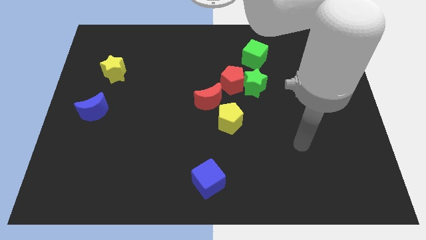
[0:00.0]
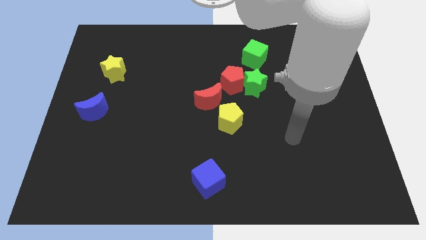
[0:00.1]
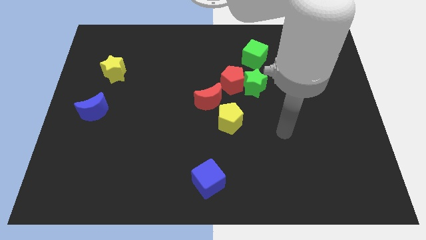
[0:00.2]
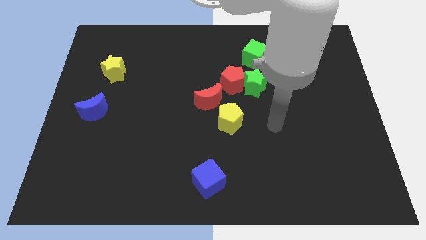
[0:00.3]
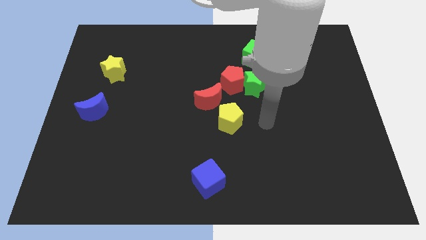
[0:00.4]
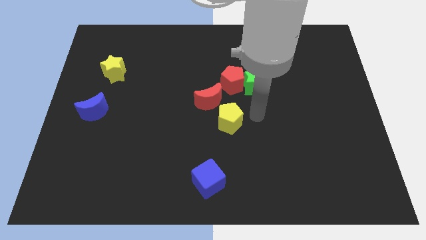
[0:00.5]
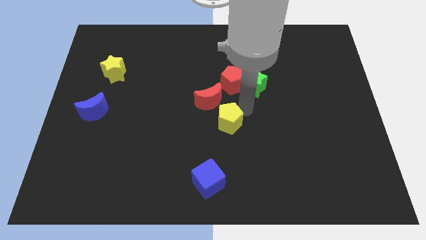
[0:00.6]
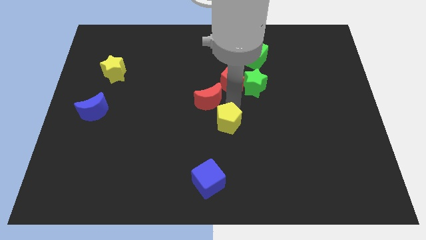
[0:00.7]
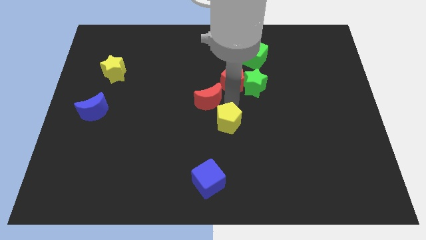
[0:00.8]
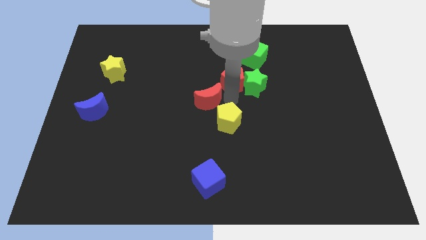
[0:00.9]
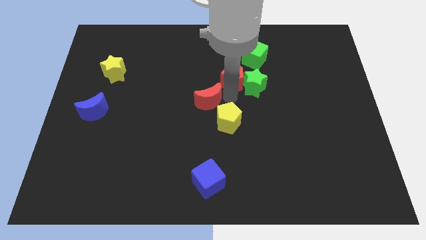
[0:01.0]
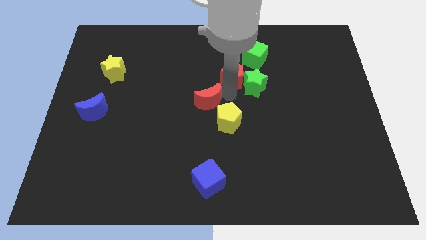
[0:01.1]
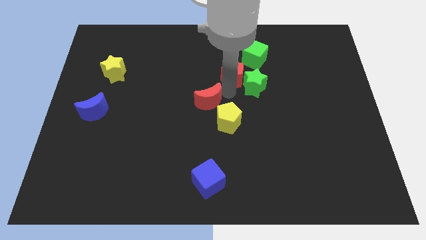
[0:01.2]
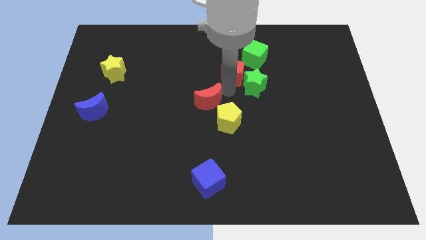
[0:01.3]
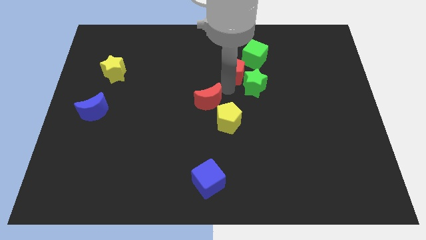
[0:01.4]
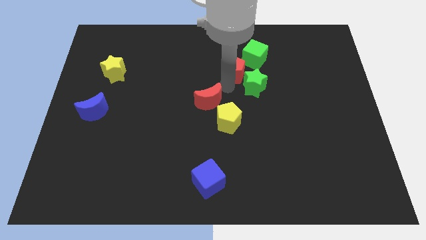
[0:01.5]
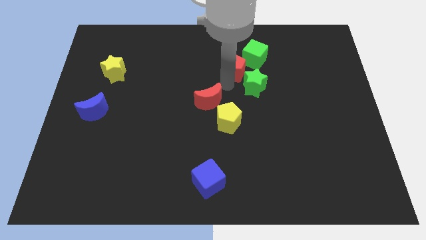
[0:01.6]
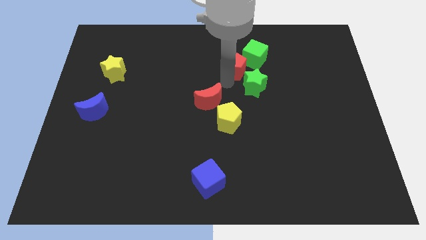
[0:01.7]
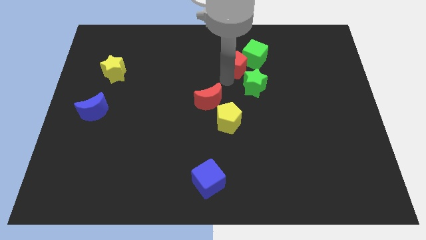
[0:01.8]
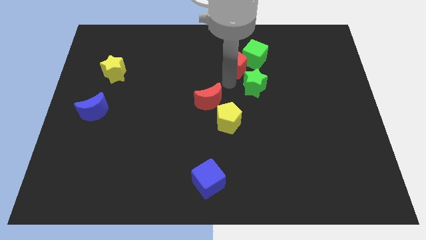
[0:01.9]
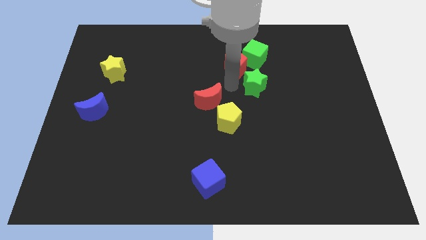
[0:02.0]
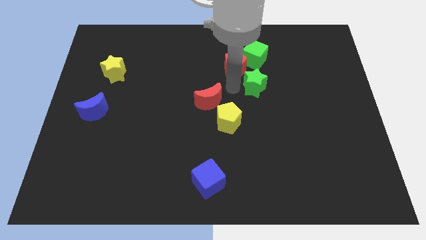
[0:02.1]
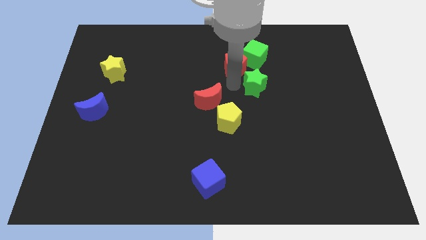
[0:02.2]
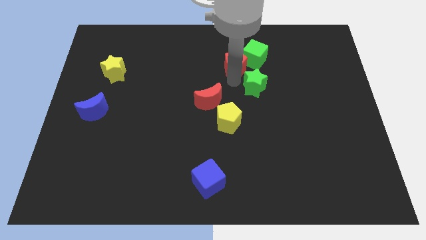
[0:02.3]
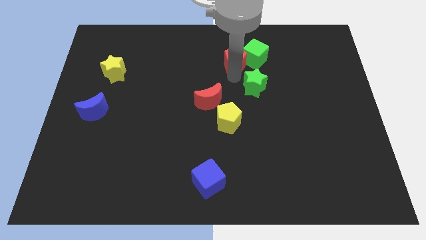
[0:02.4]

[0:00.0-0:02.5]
pull the red pentagon apart from the green star and red moon

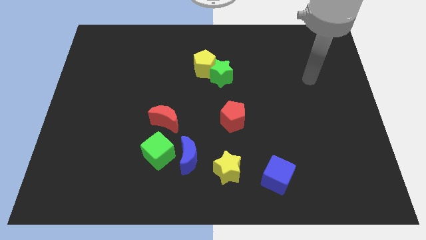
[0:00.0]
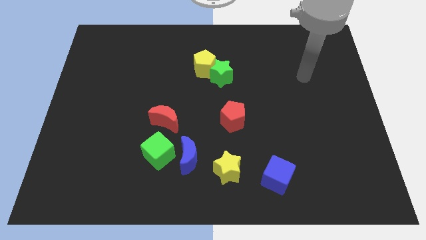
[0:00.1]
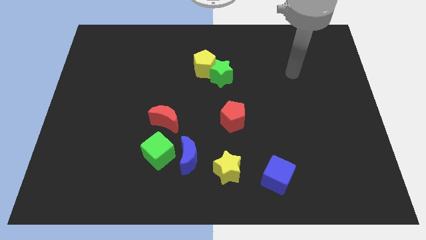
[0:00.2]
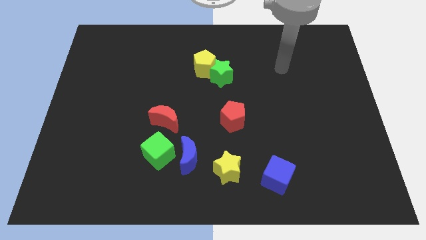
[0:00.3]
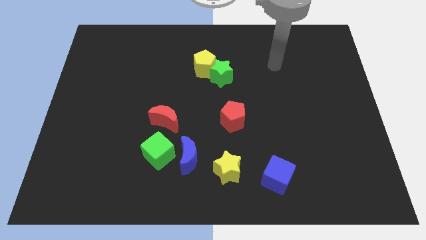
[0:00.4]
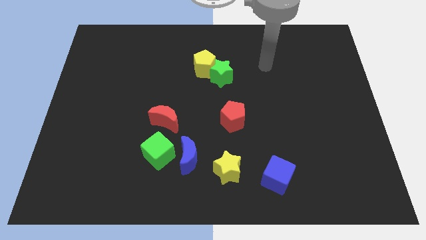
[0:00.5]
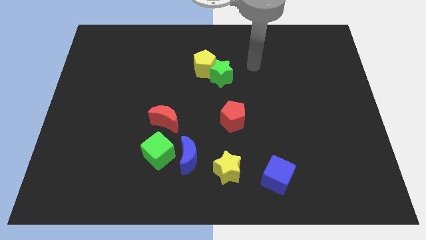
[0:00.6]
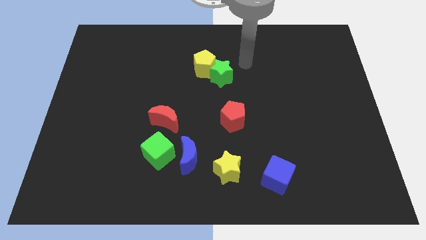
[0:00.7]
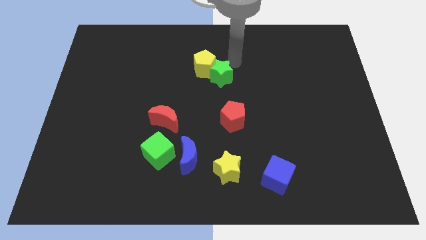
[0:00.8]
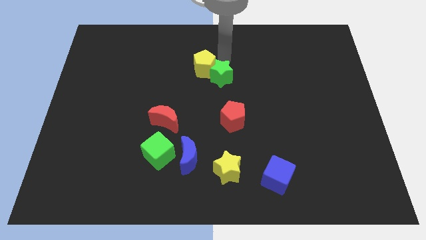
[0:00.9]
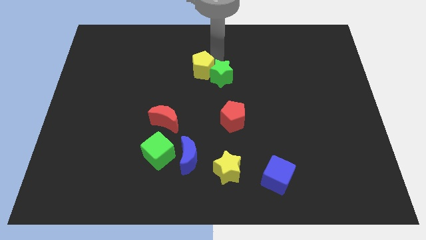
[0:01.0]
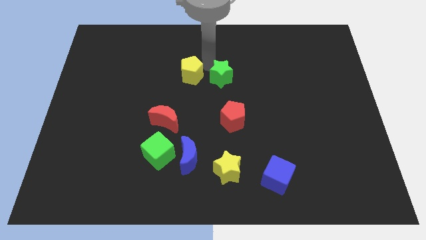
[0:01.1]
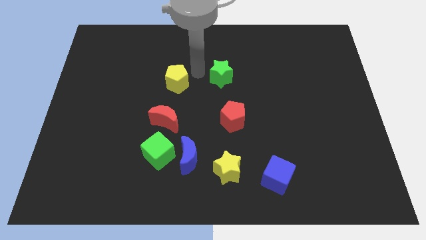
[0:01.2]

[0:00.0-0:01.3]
separate the green star from the yellow pentagon

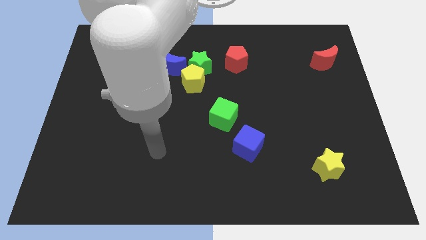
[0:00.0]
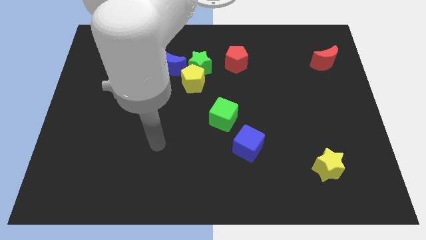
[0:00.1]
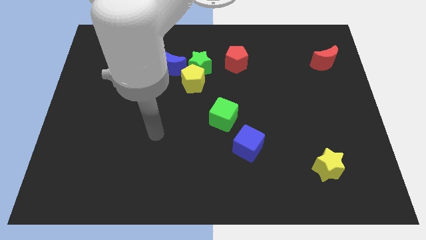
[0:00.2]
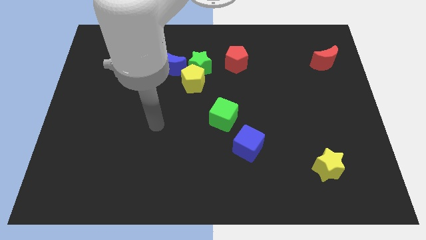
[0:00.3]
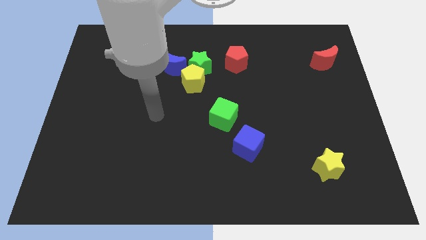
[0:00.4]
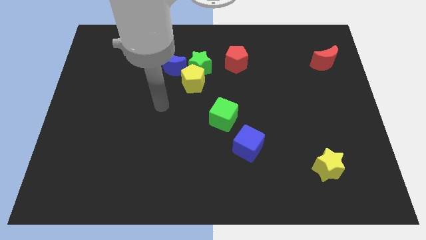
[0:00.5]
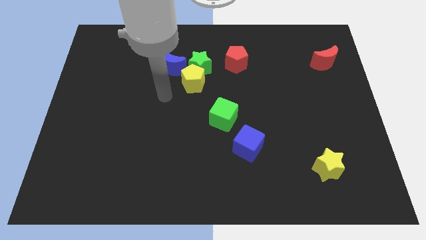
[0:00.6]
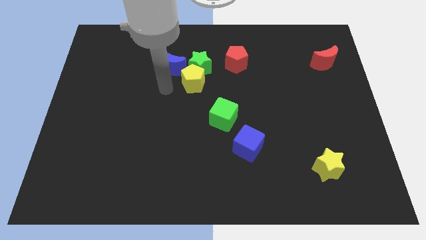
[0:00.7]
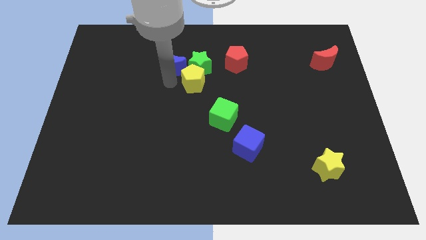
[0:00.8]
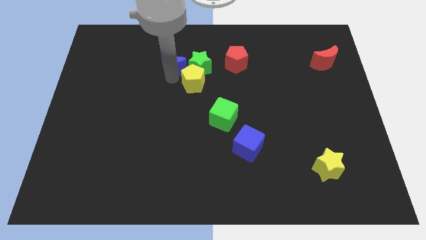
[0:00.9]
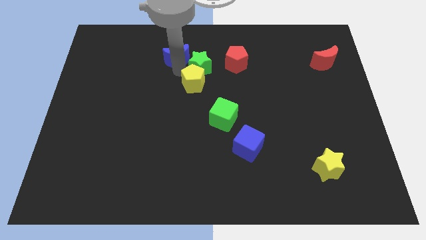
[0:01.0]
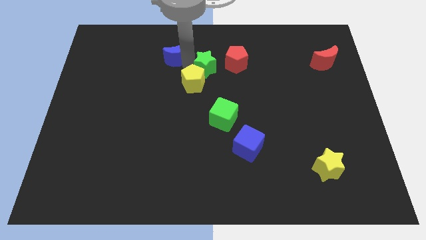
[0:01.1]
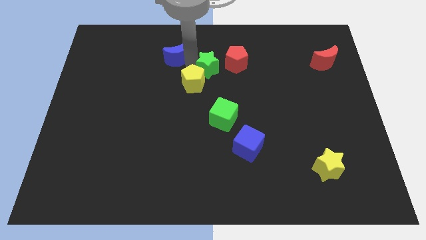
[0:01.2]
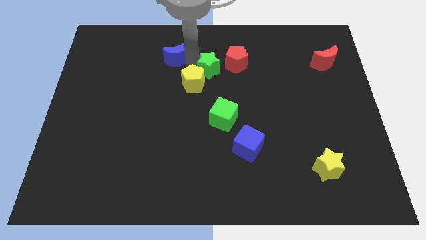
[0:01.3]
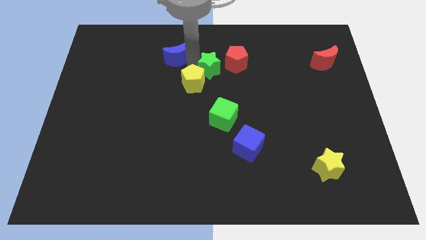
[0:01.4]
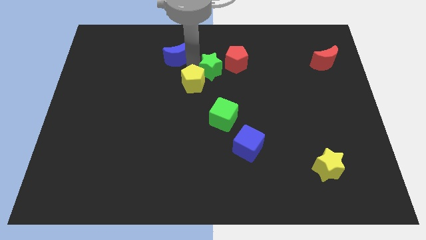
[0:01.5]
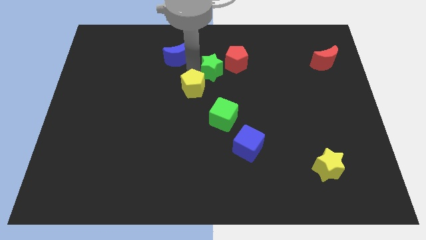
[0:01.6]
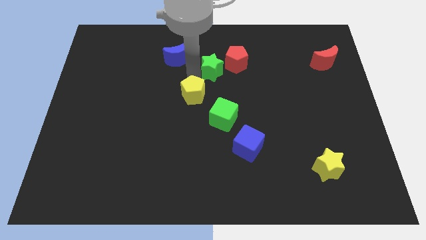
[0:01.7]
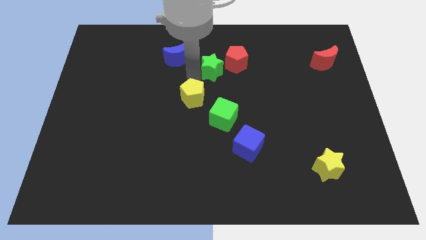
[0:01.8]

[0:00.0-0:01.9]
pull the yellow pentagon apart from the green star and blue moon

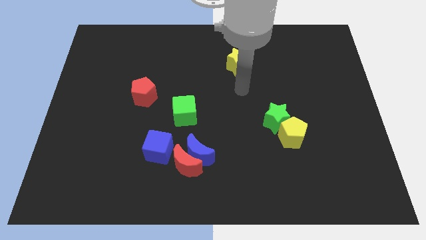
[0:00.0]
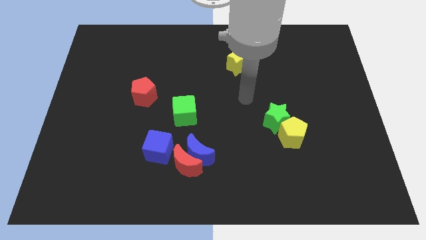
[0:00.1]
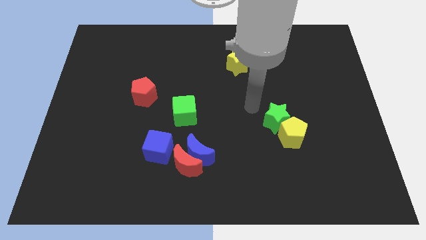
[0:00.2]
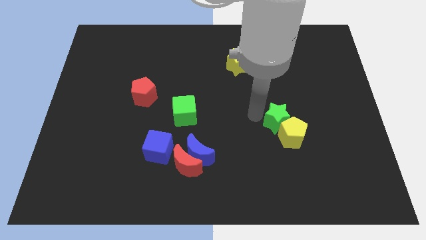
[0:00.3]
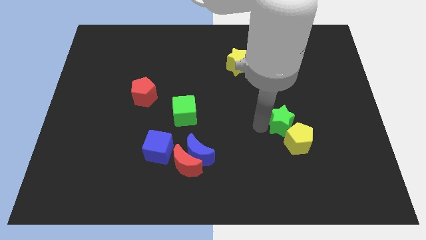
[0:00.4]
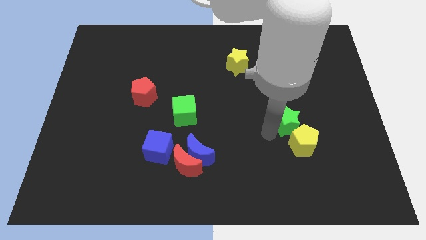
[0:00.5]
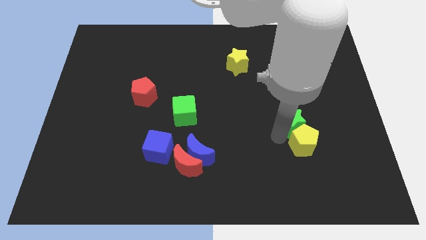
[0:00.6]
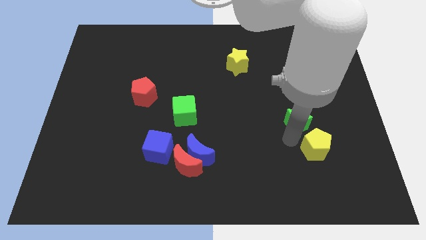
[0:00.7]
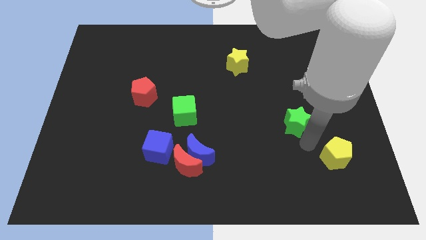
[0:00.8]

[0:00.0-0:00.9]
move the green star away from the yellow pentagon

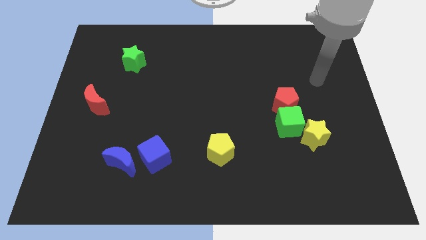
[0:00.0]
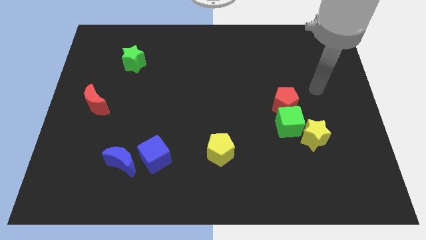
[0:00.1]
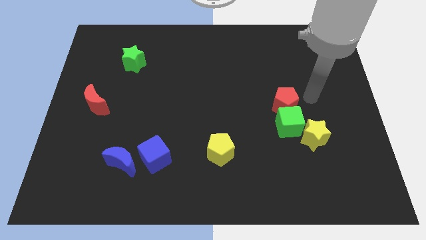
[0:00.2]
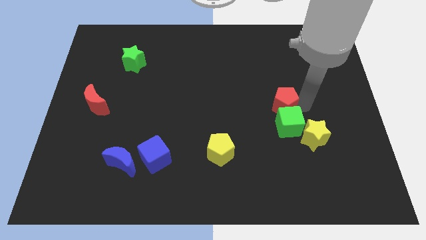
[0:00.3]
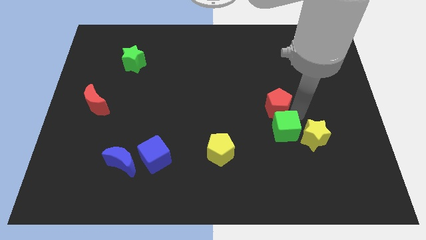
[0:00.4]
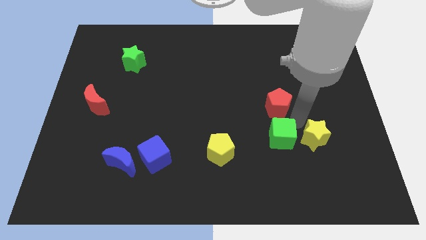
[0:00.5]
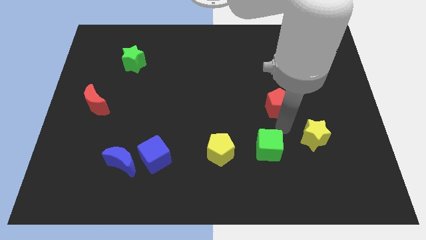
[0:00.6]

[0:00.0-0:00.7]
pull the red pentagon apart from the green cube

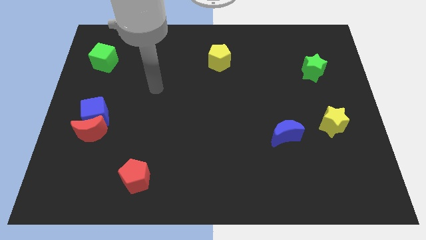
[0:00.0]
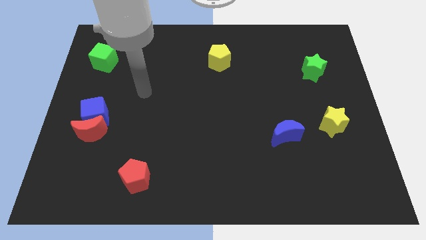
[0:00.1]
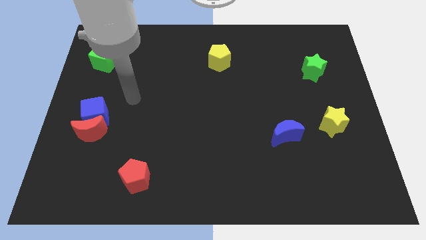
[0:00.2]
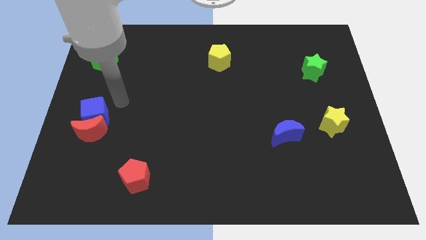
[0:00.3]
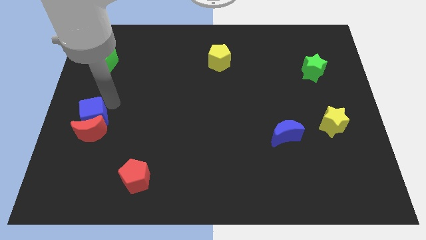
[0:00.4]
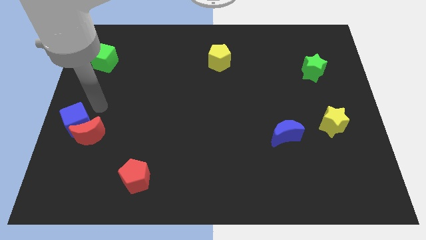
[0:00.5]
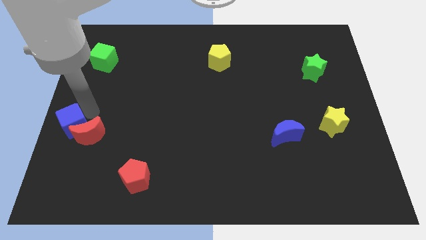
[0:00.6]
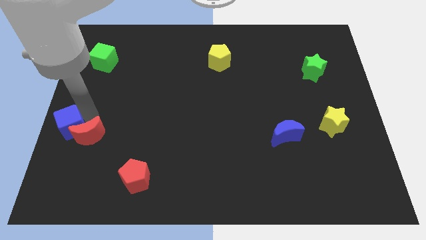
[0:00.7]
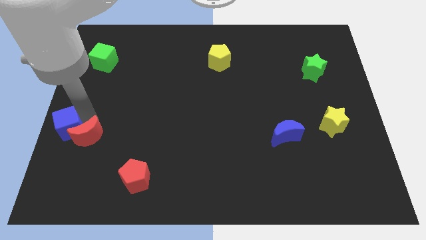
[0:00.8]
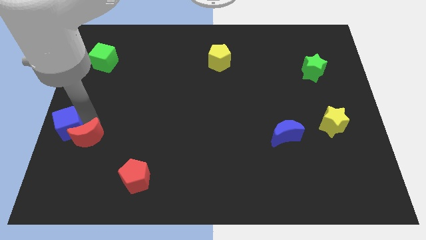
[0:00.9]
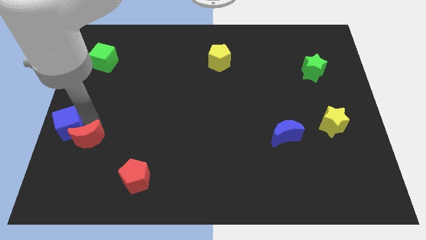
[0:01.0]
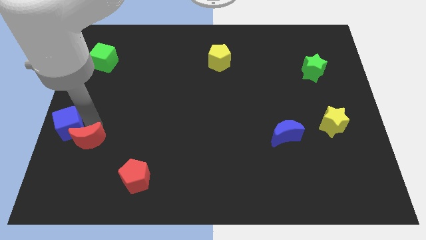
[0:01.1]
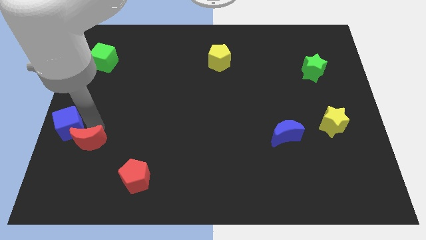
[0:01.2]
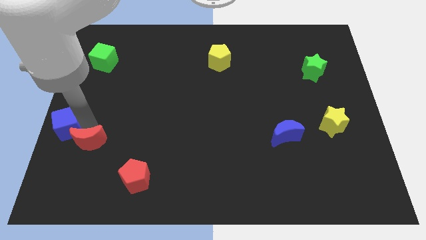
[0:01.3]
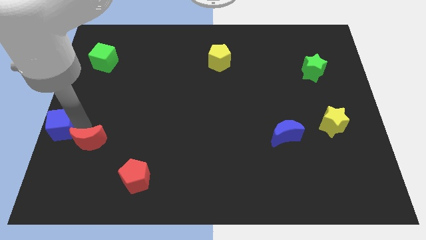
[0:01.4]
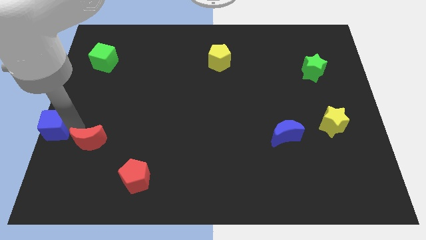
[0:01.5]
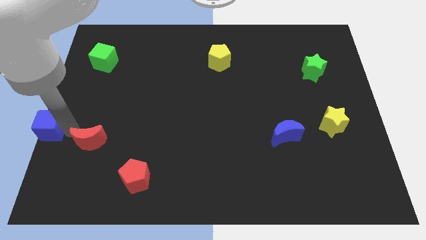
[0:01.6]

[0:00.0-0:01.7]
separate the red moon from the blue cube

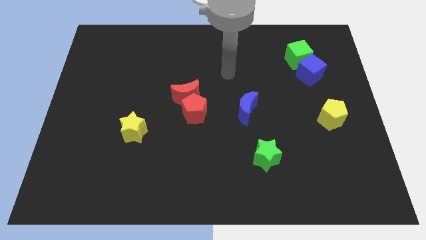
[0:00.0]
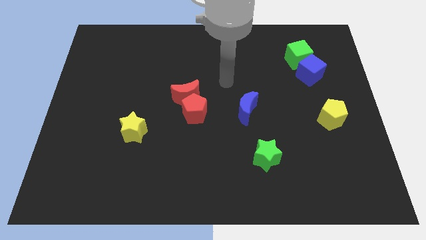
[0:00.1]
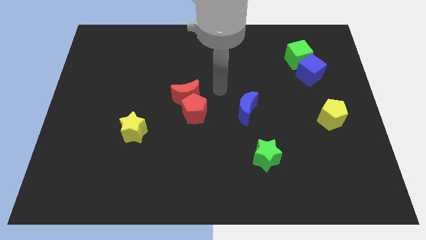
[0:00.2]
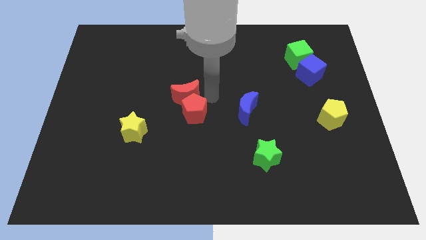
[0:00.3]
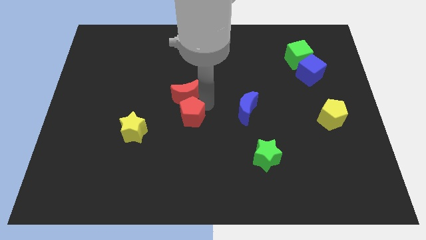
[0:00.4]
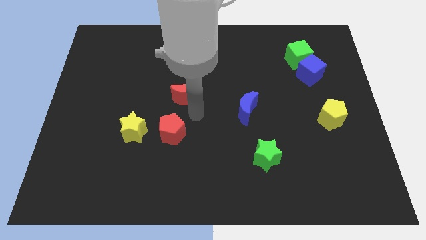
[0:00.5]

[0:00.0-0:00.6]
move the red moon away from the red pentagon
